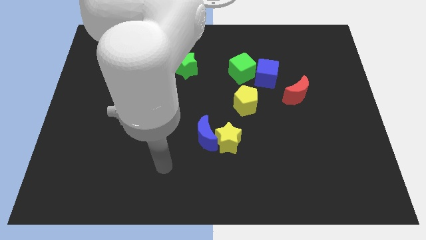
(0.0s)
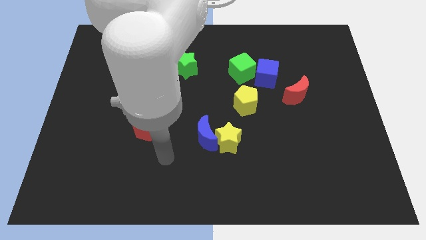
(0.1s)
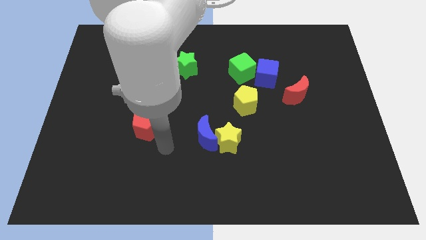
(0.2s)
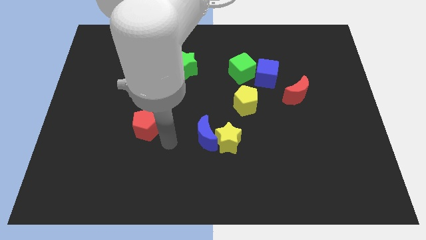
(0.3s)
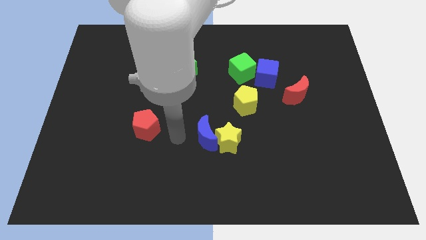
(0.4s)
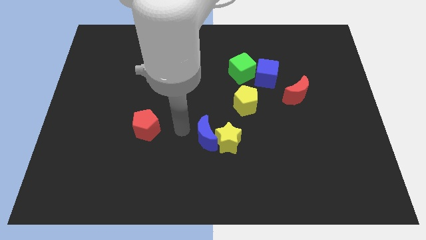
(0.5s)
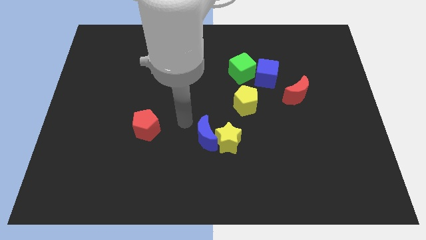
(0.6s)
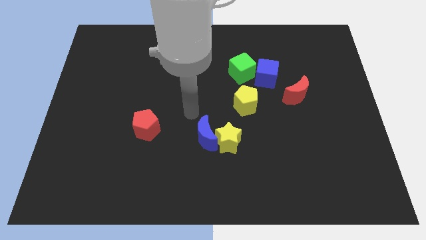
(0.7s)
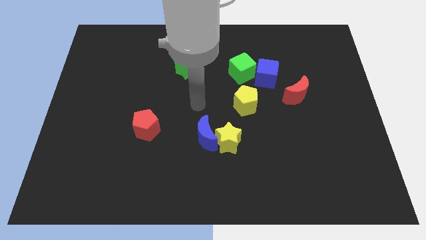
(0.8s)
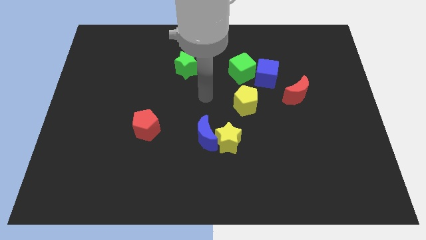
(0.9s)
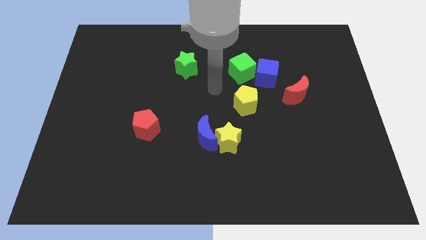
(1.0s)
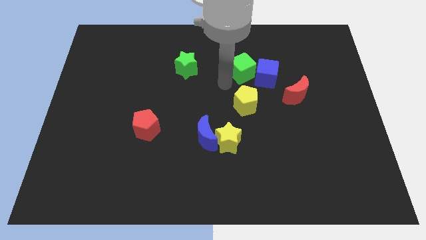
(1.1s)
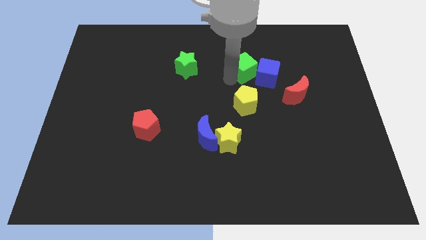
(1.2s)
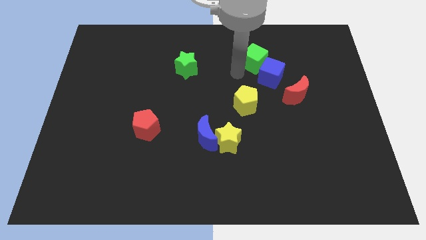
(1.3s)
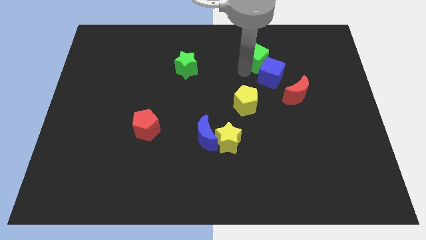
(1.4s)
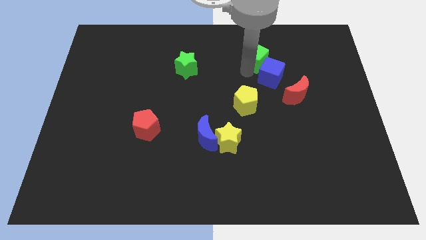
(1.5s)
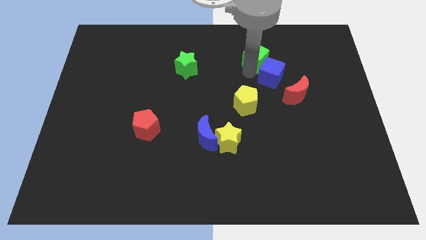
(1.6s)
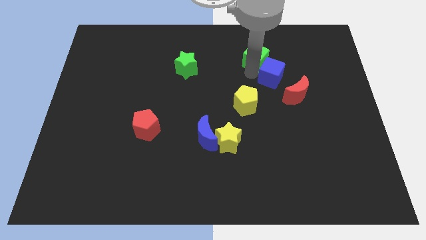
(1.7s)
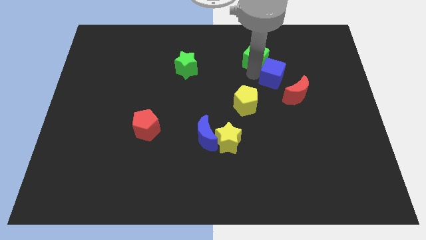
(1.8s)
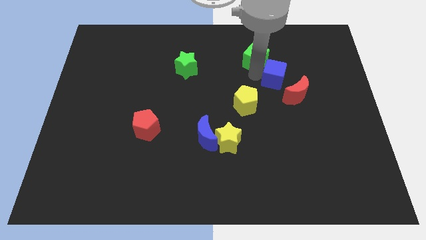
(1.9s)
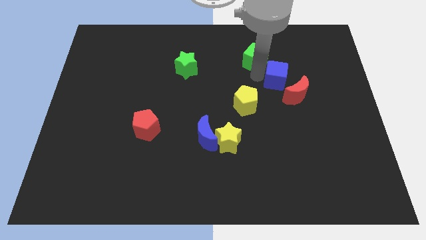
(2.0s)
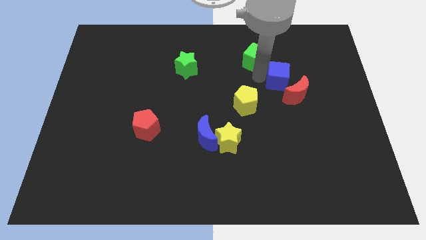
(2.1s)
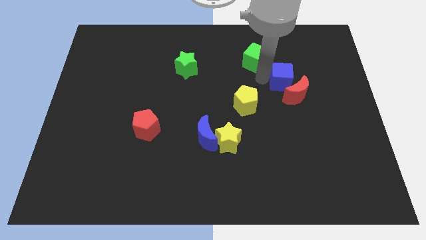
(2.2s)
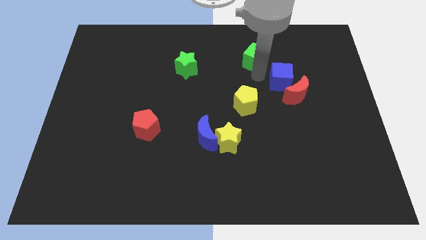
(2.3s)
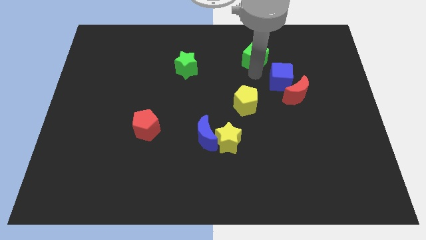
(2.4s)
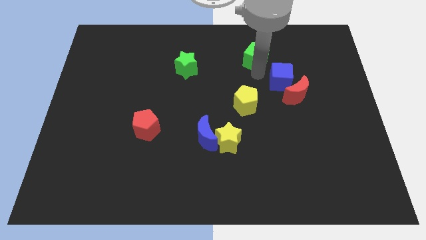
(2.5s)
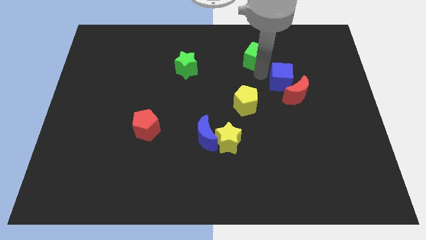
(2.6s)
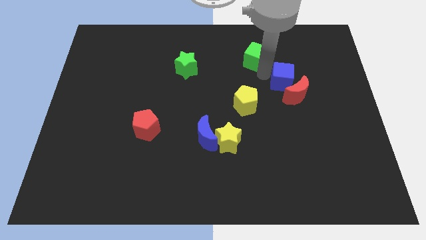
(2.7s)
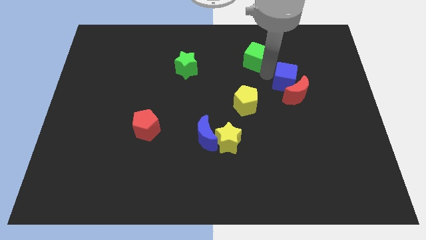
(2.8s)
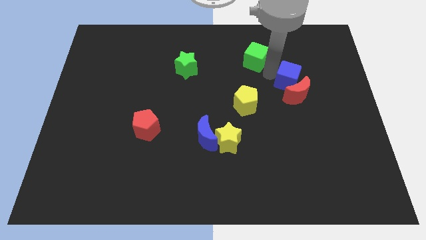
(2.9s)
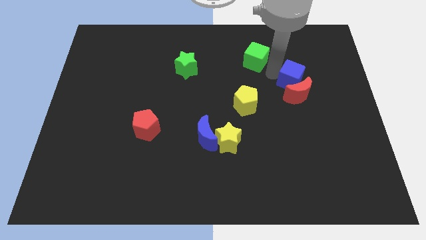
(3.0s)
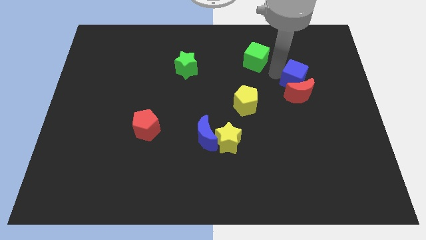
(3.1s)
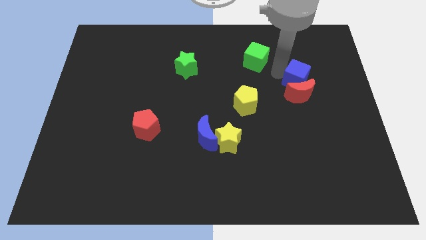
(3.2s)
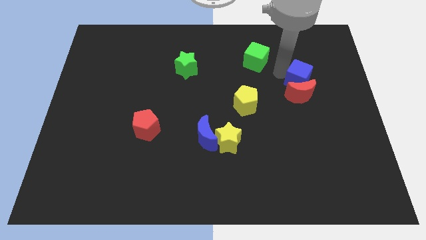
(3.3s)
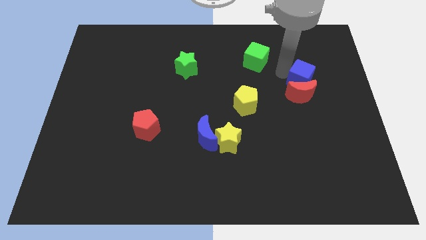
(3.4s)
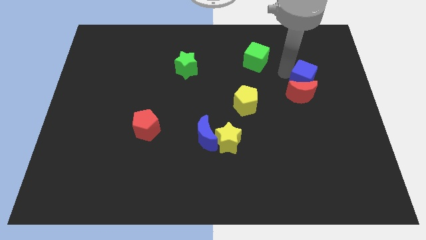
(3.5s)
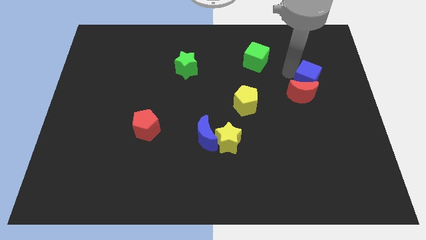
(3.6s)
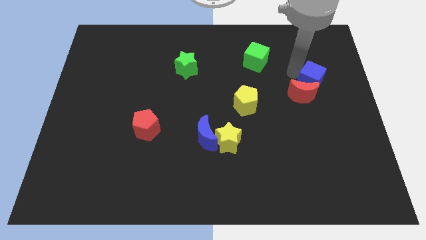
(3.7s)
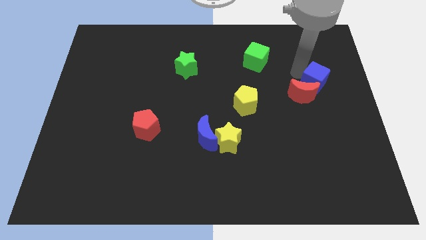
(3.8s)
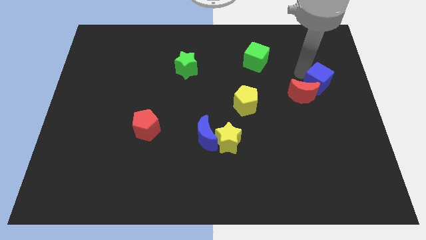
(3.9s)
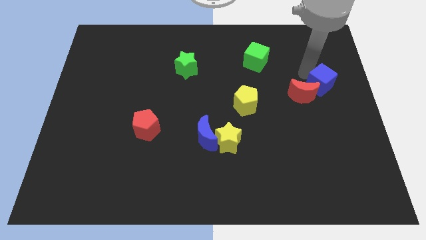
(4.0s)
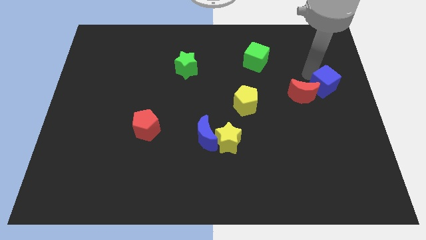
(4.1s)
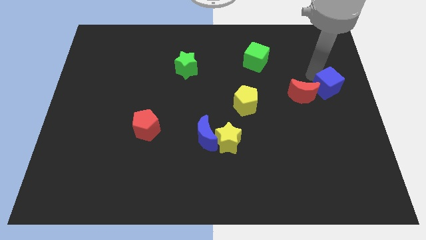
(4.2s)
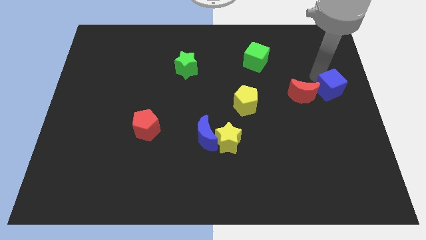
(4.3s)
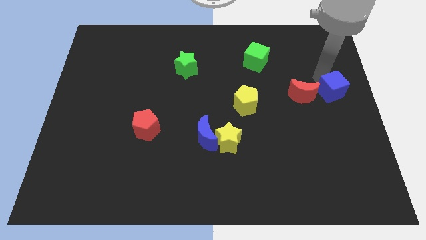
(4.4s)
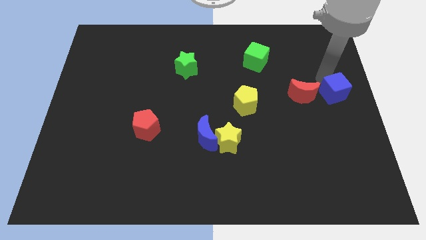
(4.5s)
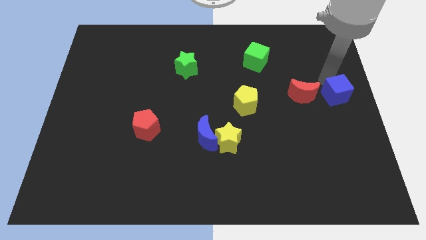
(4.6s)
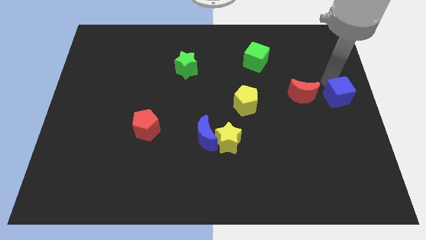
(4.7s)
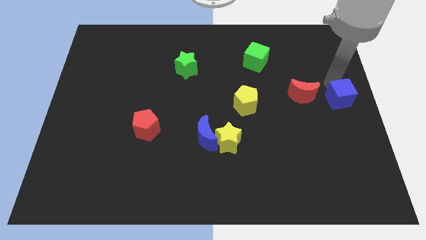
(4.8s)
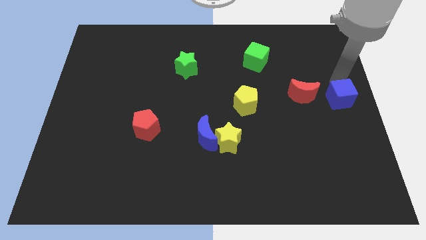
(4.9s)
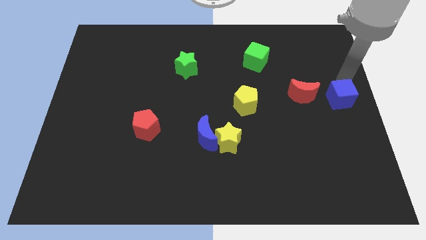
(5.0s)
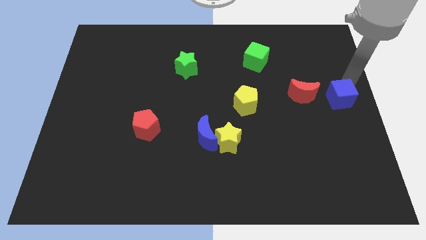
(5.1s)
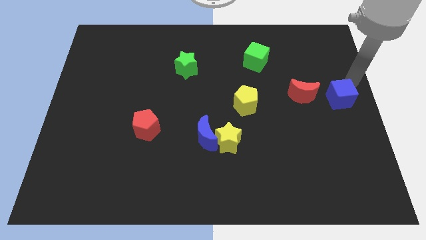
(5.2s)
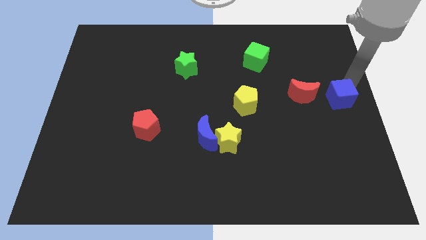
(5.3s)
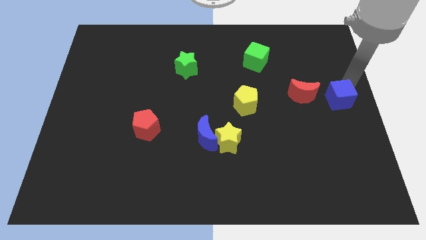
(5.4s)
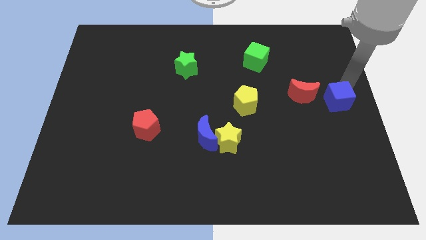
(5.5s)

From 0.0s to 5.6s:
slide the blue cube to the bottom right side of the red moon

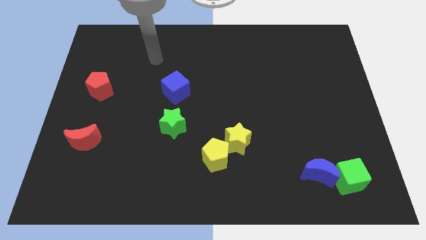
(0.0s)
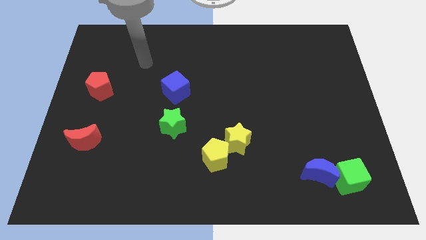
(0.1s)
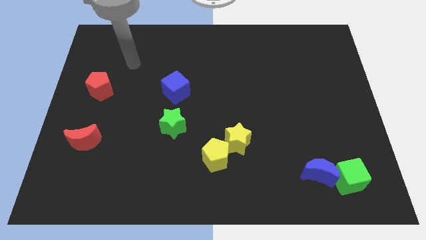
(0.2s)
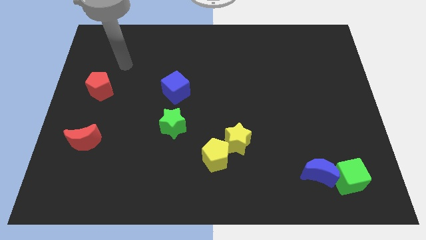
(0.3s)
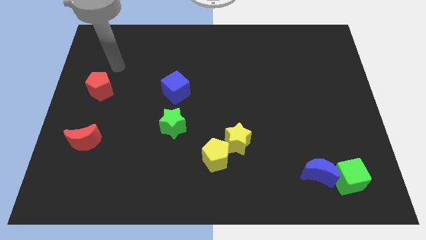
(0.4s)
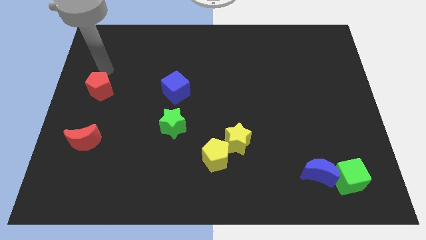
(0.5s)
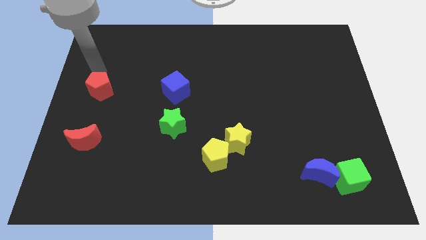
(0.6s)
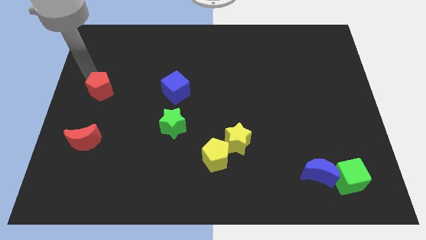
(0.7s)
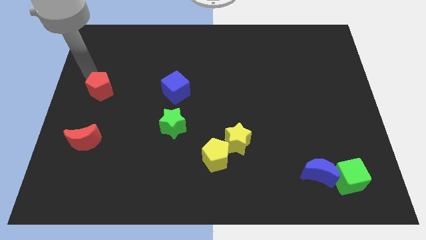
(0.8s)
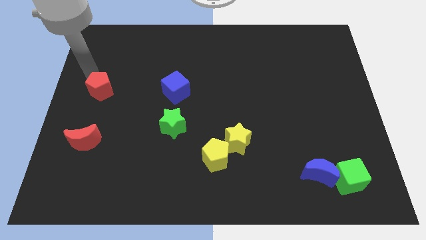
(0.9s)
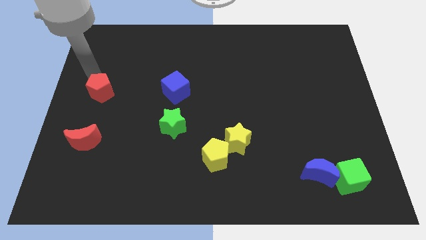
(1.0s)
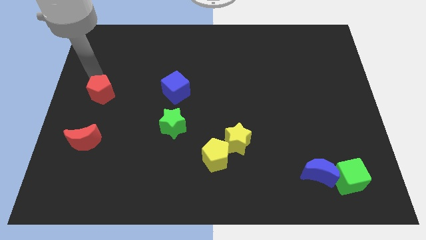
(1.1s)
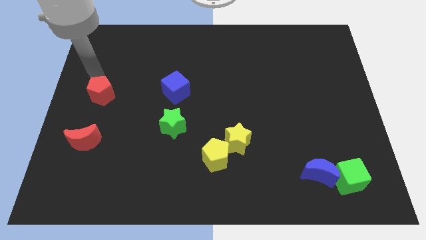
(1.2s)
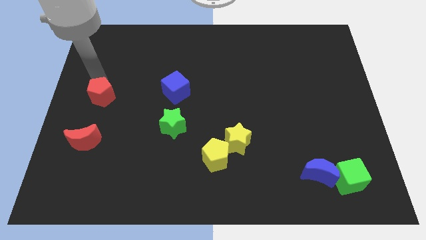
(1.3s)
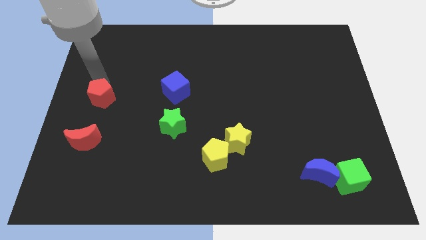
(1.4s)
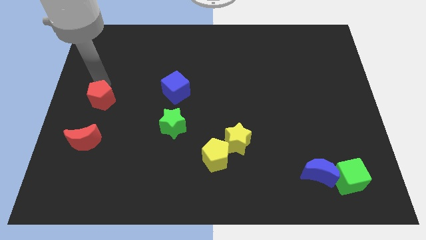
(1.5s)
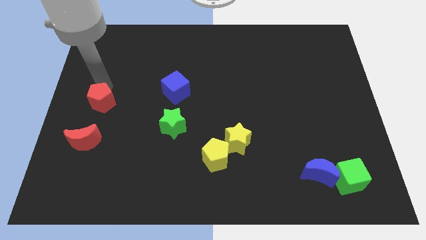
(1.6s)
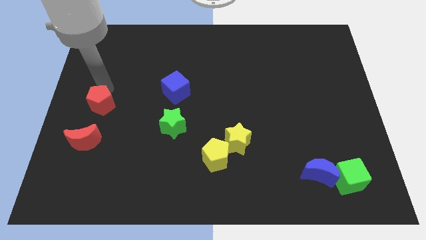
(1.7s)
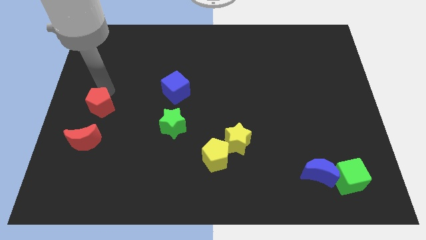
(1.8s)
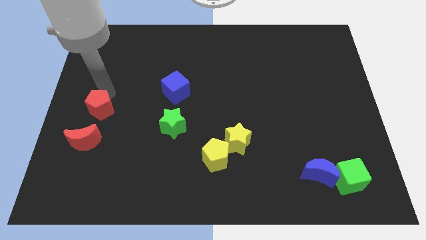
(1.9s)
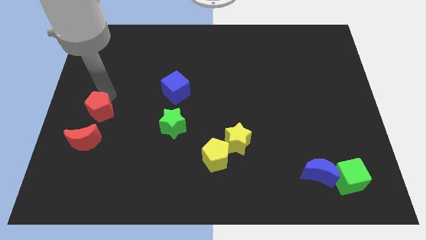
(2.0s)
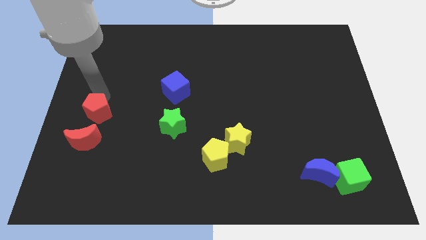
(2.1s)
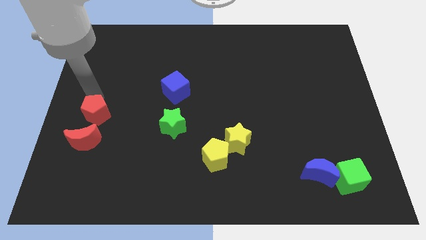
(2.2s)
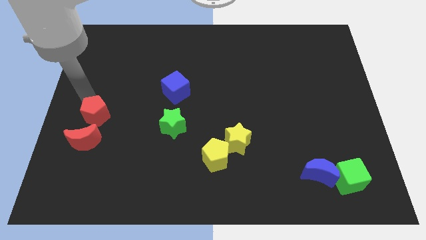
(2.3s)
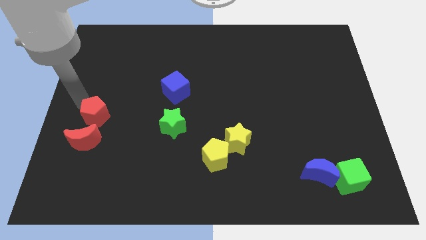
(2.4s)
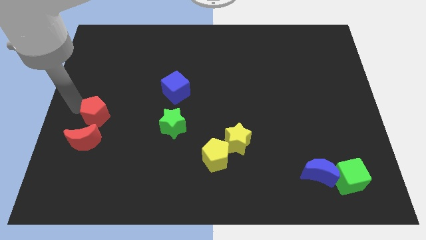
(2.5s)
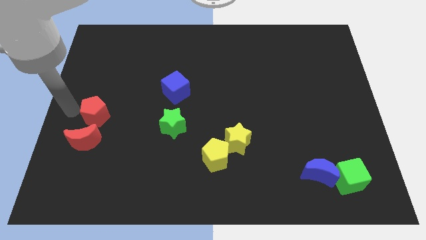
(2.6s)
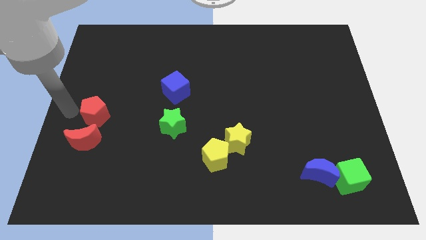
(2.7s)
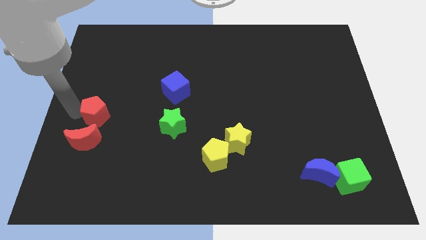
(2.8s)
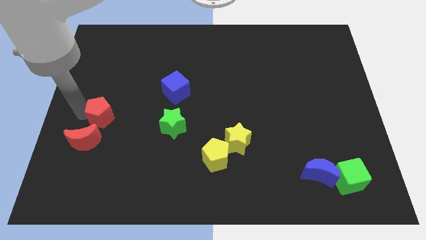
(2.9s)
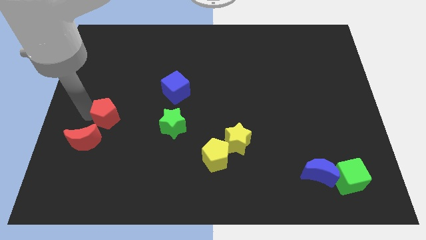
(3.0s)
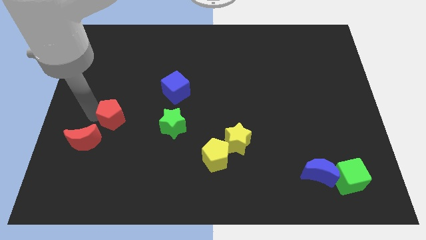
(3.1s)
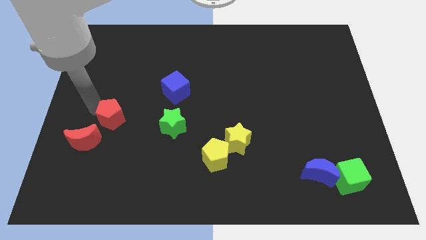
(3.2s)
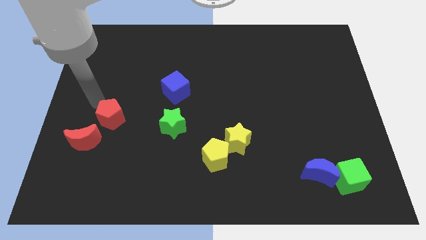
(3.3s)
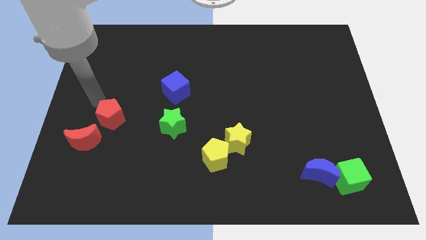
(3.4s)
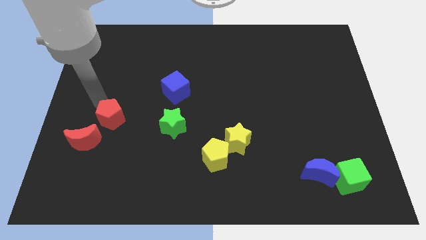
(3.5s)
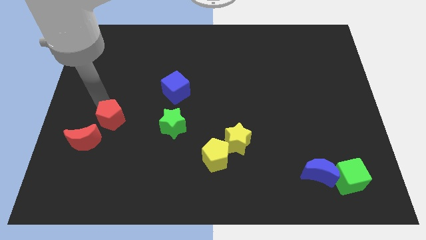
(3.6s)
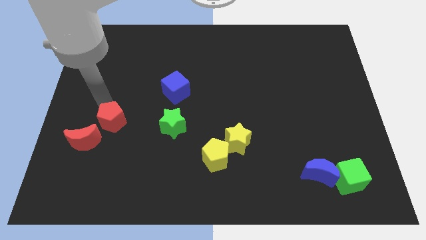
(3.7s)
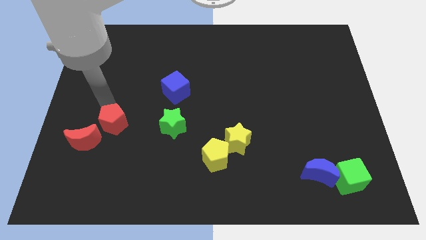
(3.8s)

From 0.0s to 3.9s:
slide the red pentagon just right of the red moon
